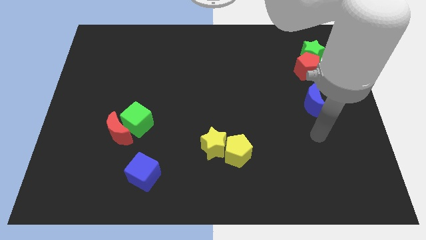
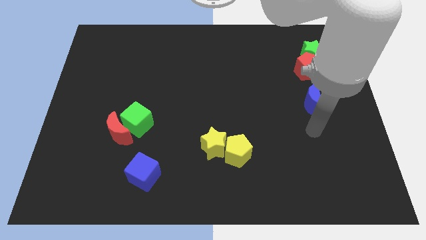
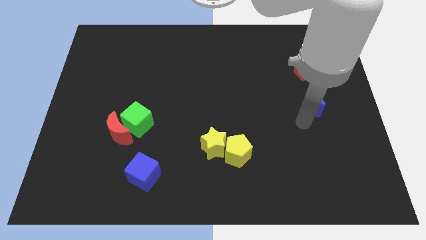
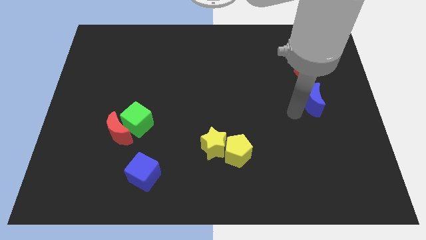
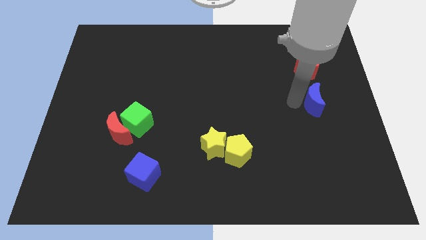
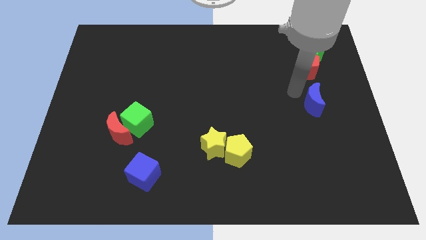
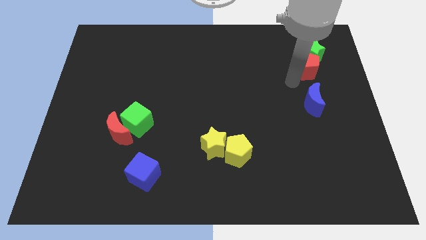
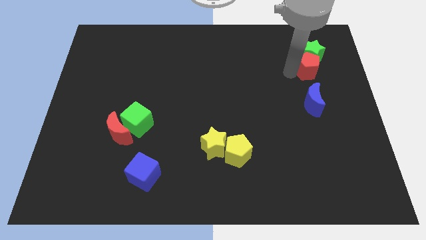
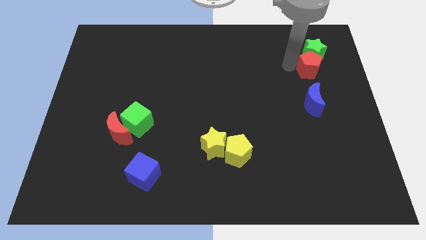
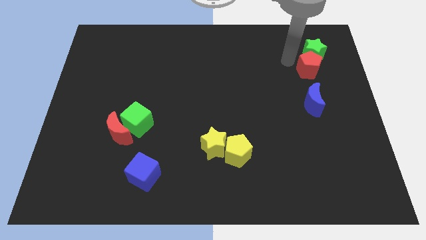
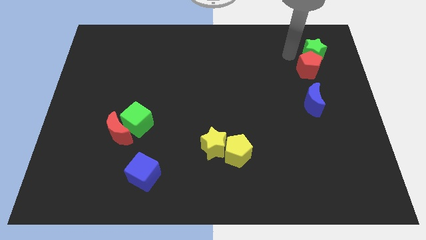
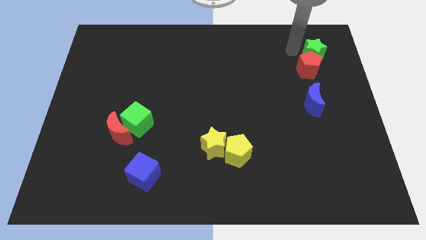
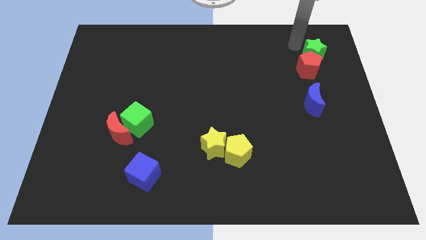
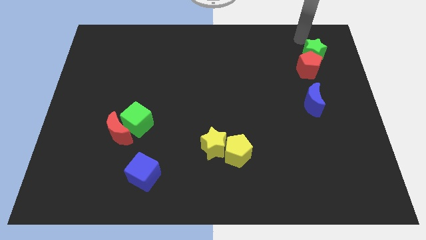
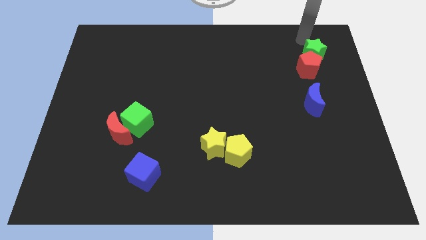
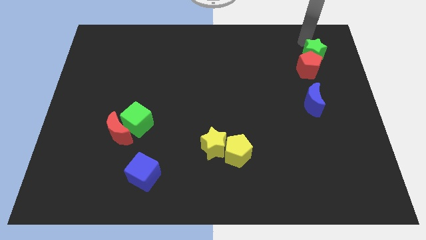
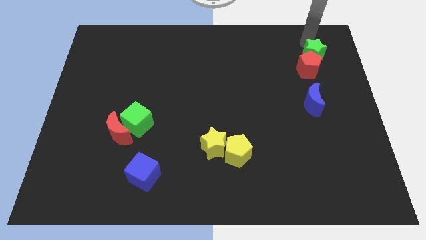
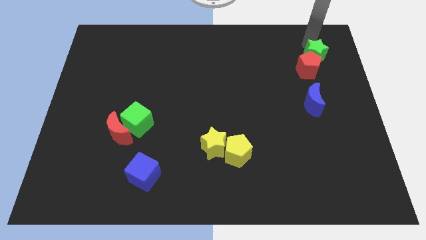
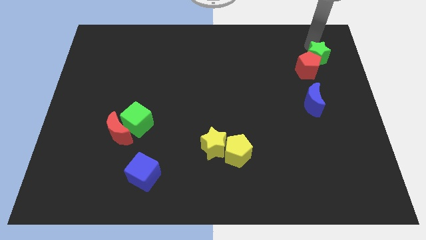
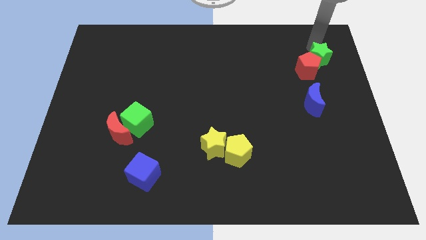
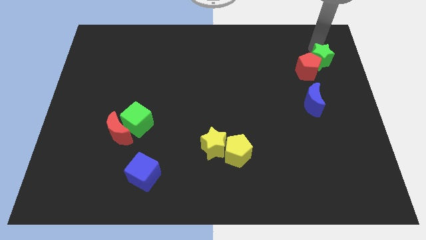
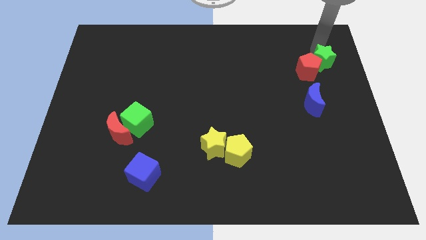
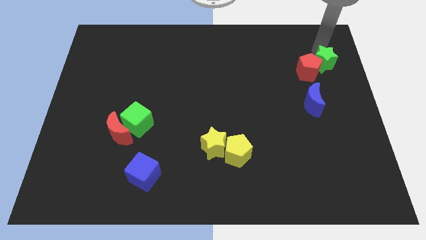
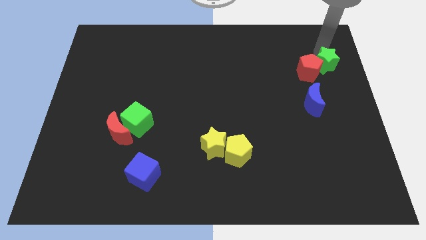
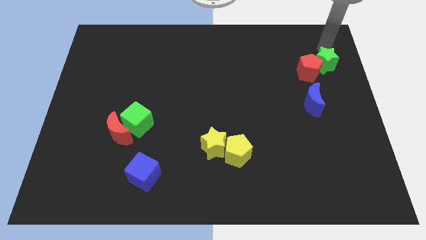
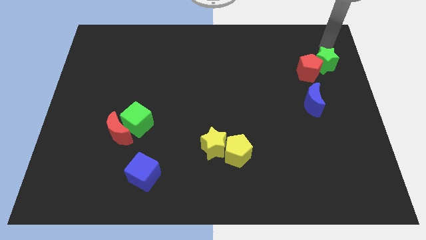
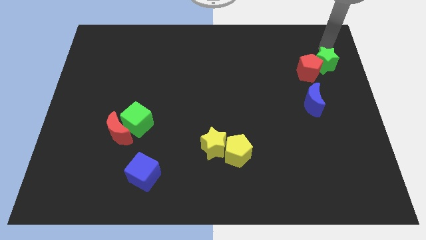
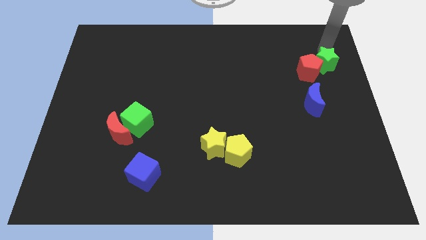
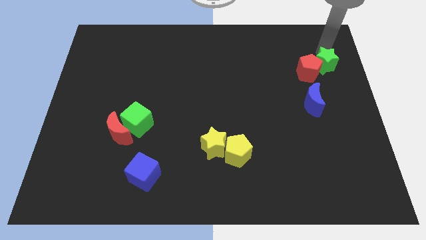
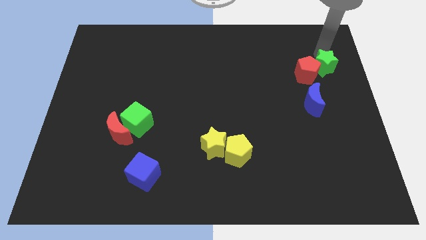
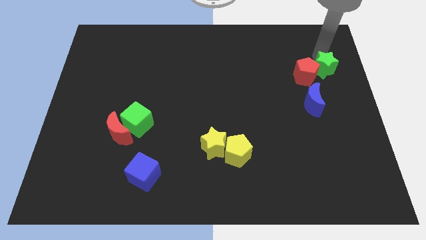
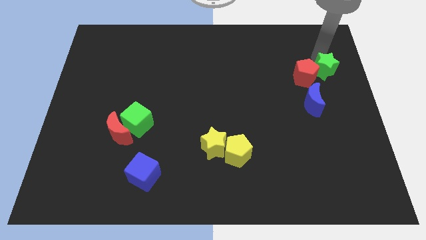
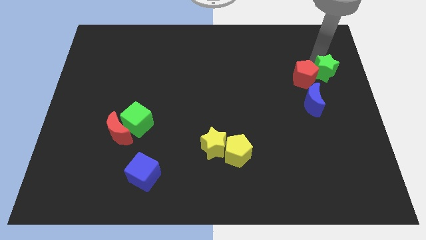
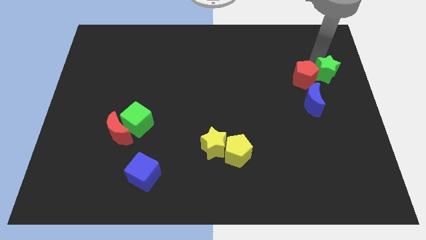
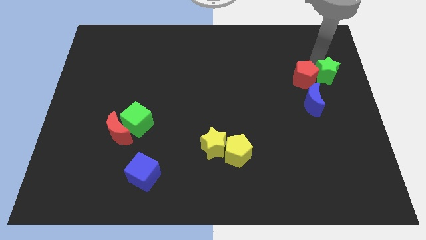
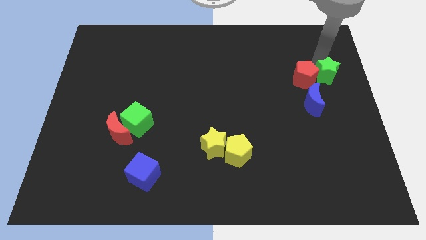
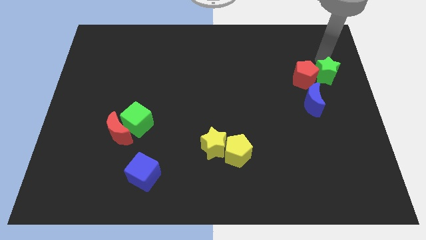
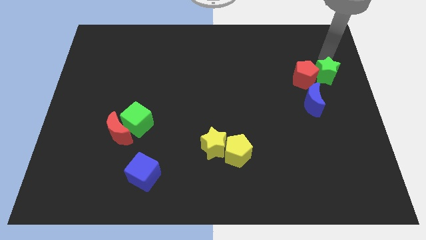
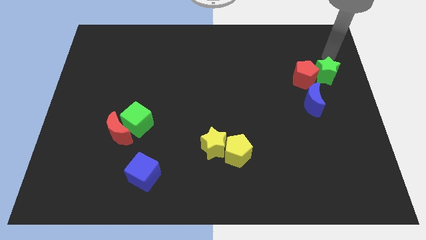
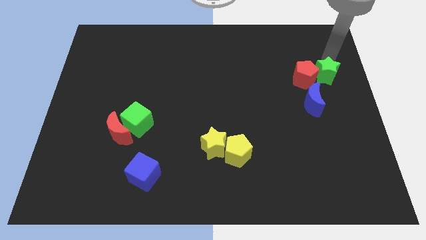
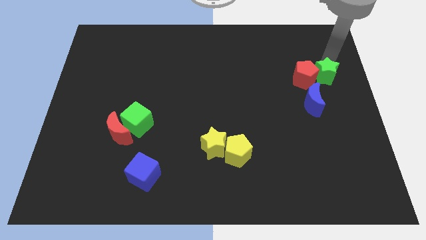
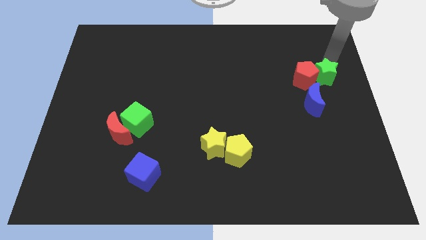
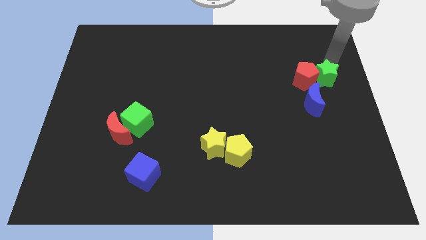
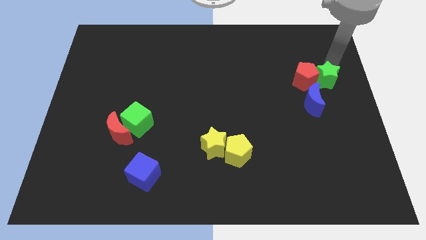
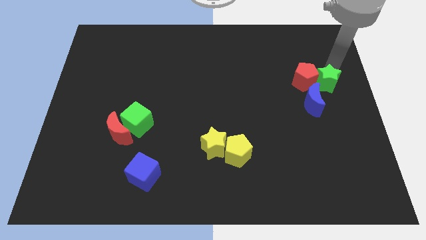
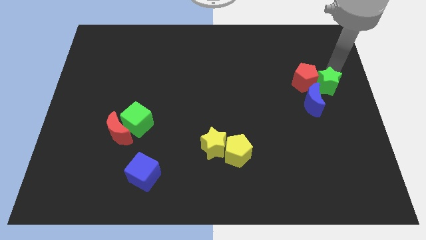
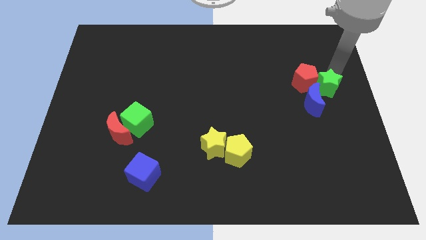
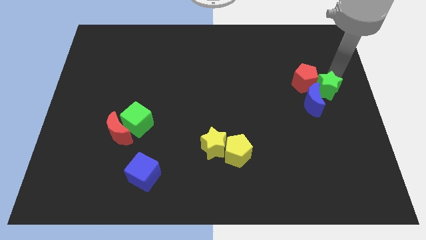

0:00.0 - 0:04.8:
move the green star next to the blue moon

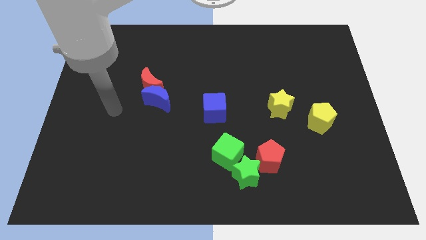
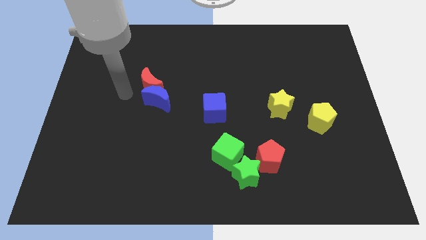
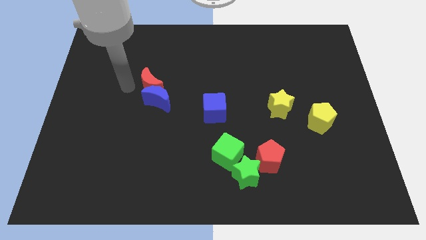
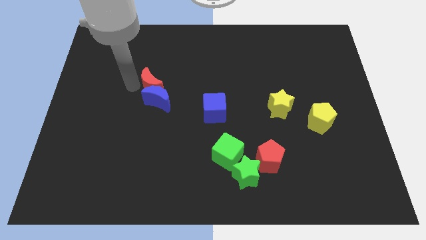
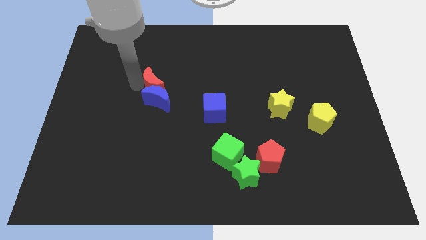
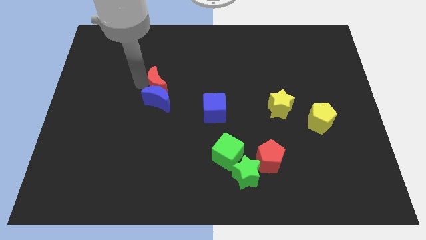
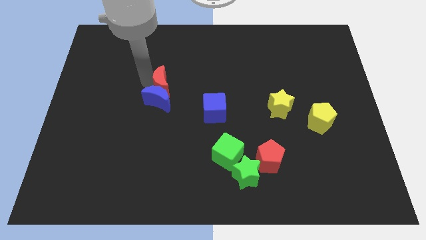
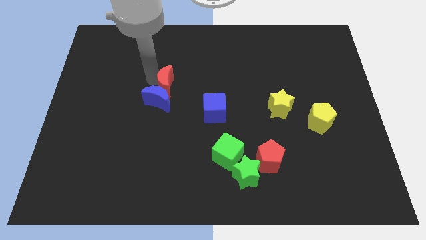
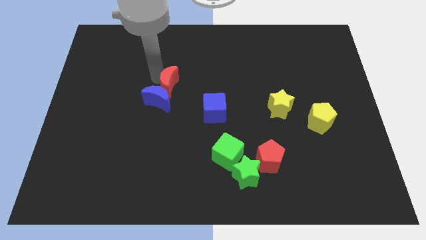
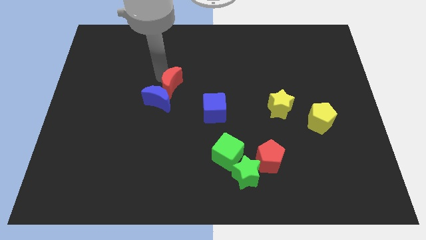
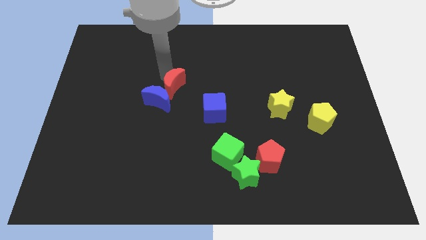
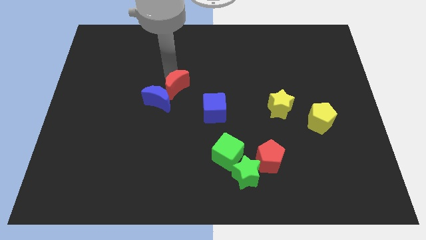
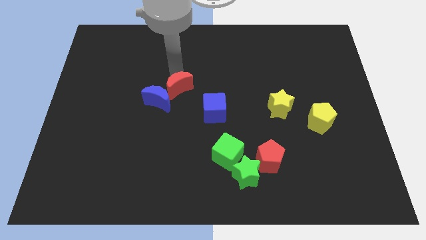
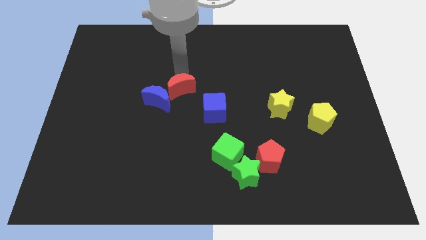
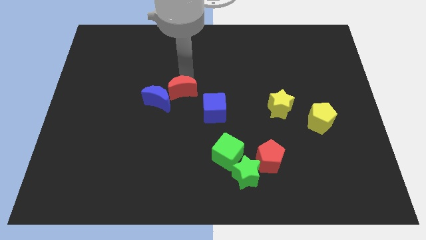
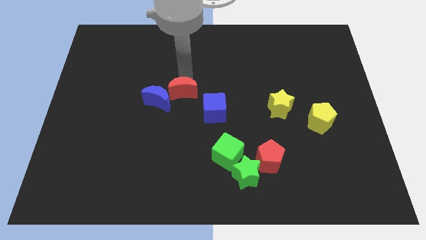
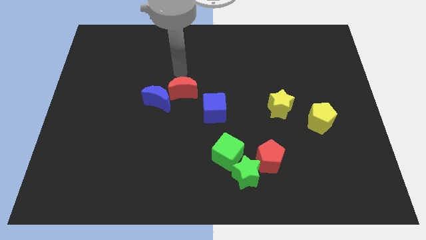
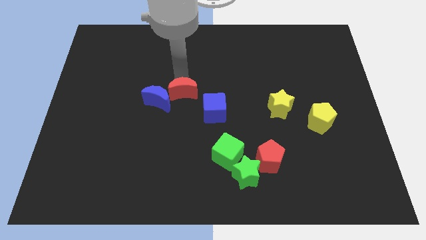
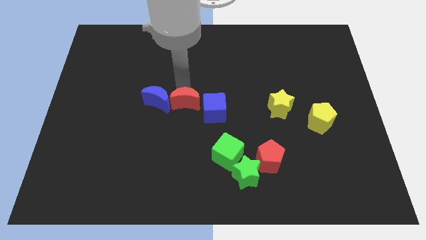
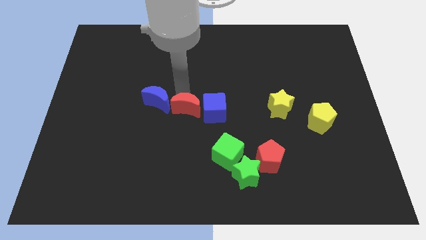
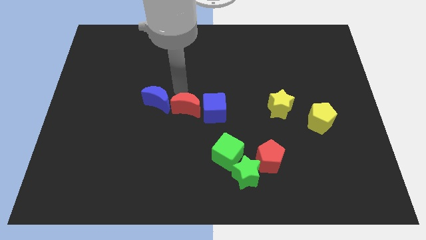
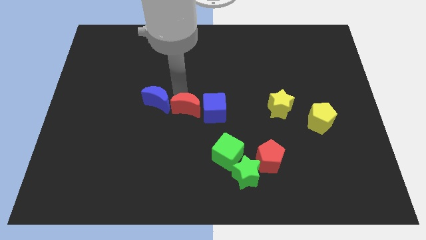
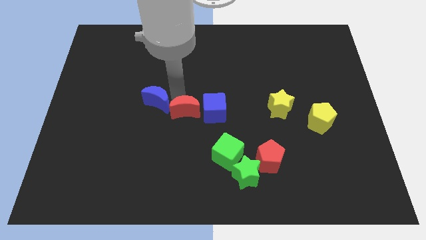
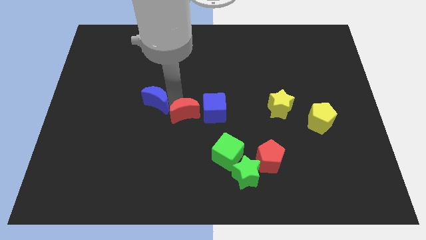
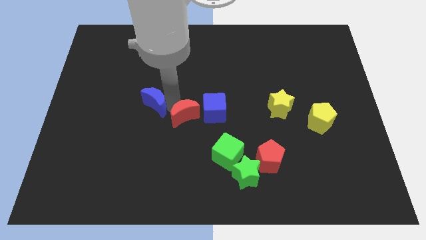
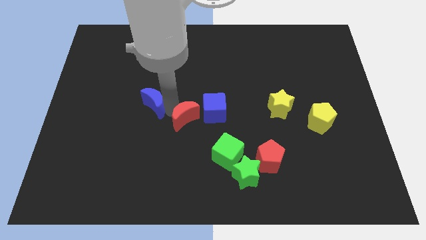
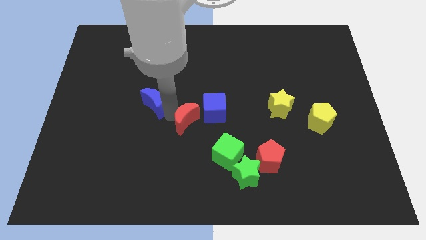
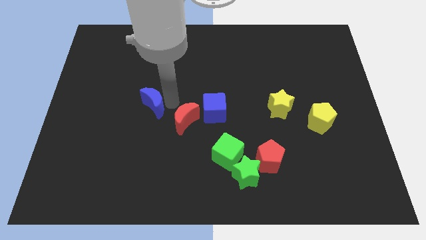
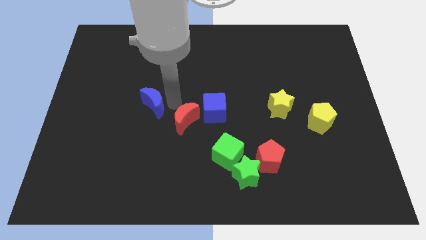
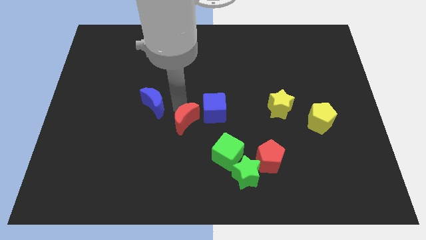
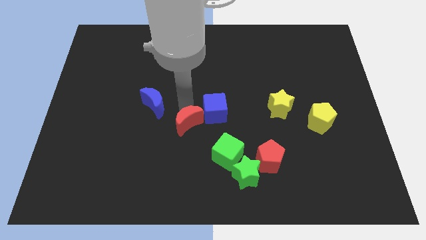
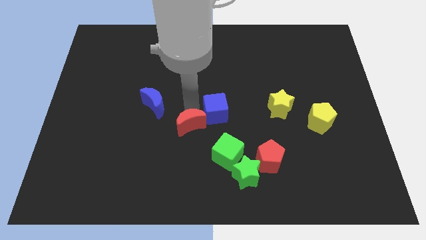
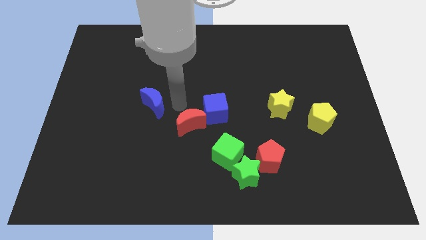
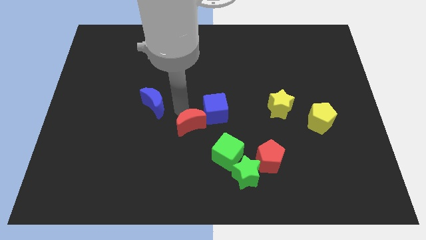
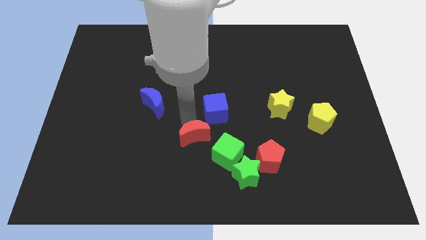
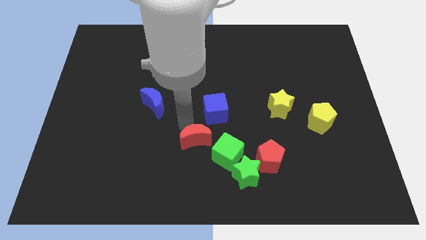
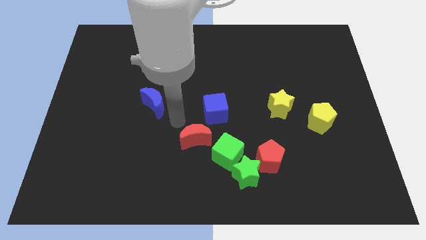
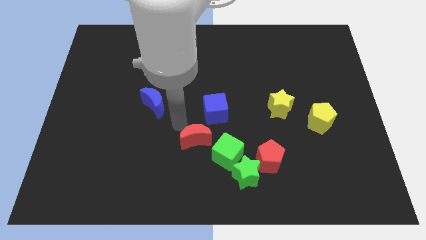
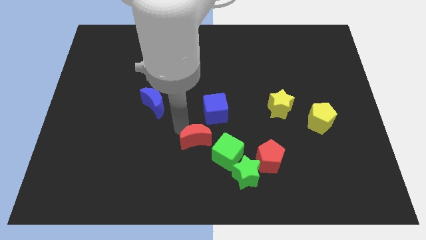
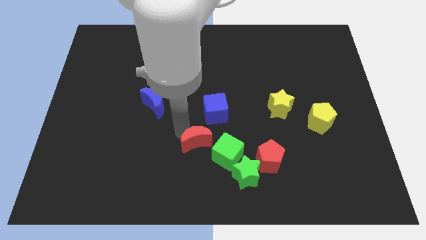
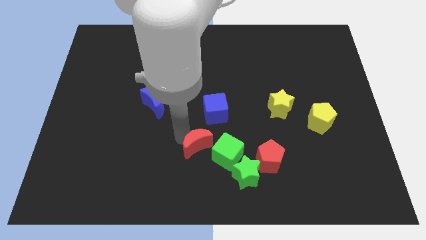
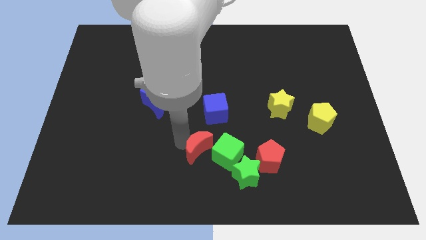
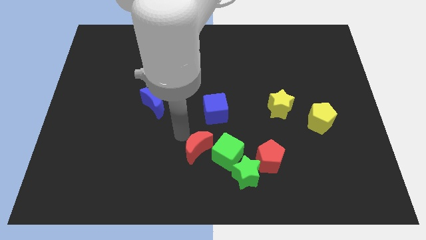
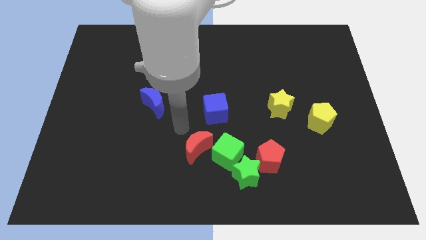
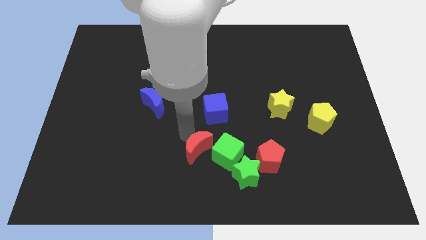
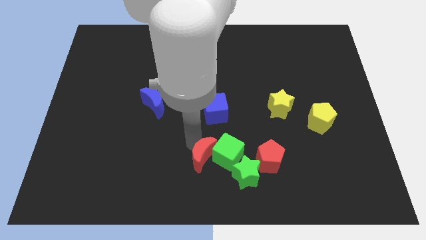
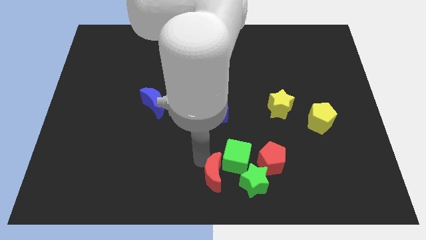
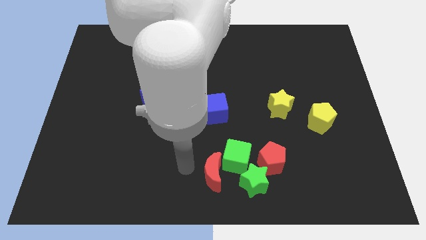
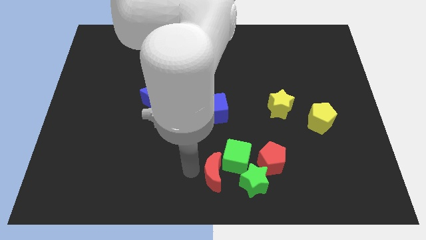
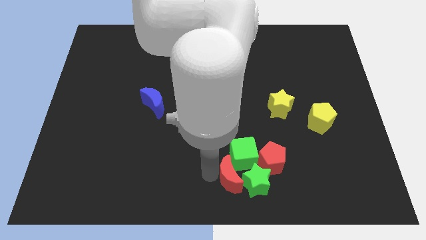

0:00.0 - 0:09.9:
slide the red moon close to the green star
